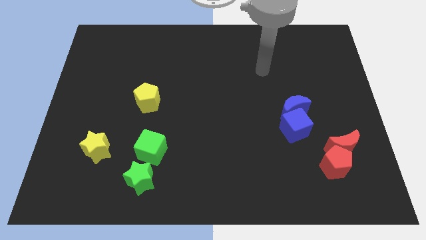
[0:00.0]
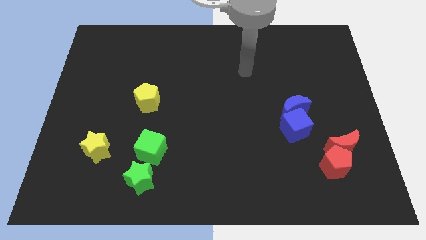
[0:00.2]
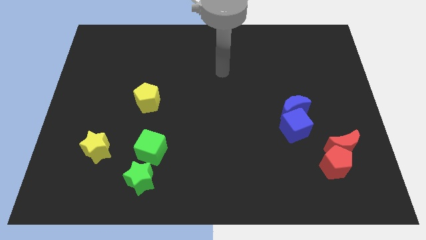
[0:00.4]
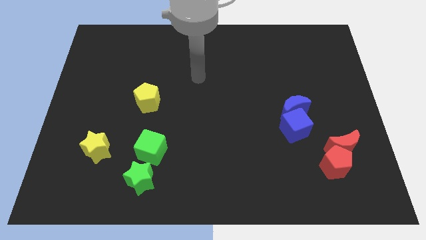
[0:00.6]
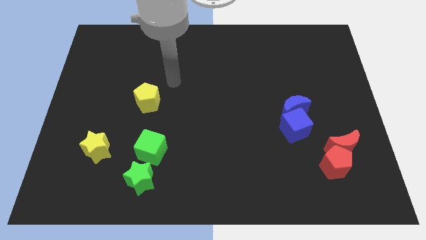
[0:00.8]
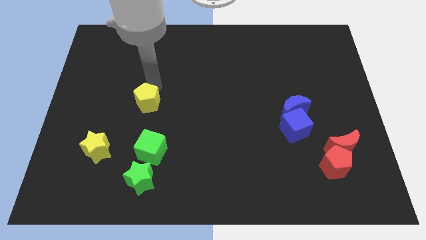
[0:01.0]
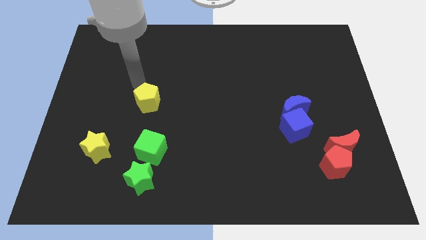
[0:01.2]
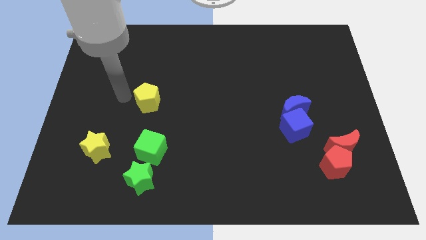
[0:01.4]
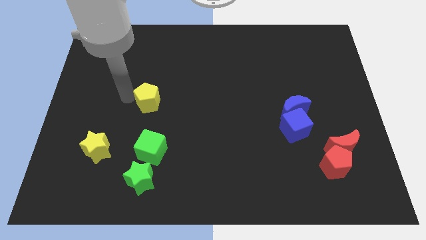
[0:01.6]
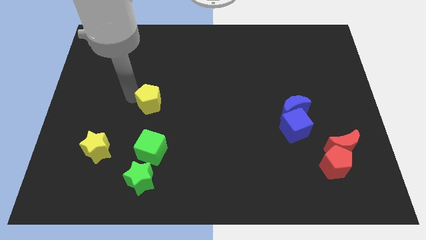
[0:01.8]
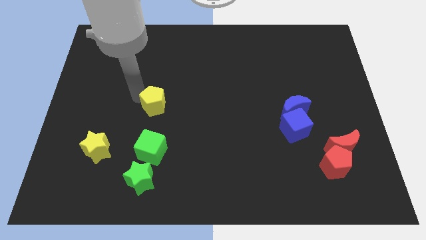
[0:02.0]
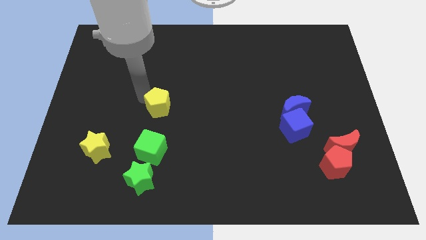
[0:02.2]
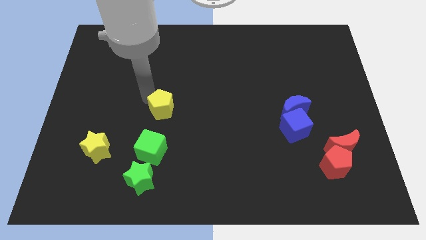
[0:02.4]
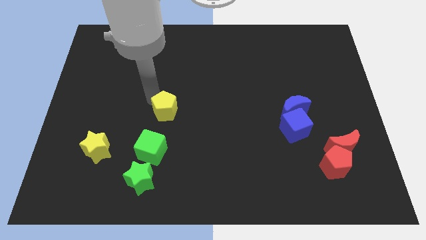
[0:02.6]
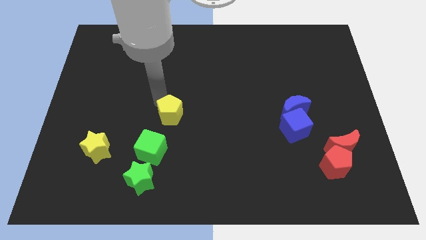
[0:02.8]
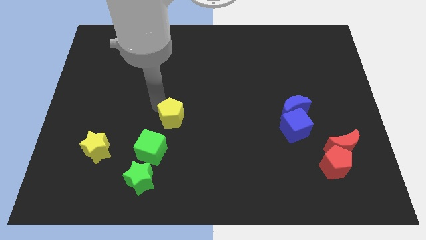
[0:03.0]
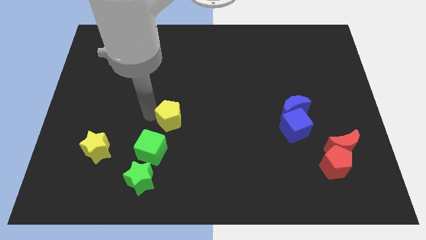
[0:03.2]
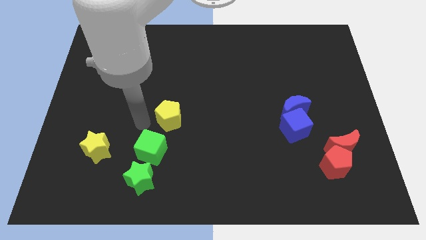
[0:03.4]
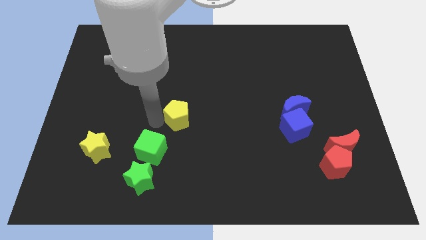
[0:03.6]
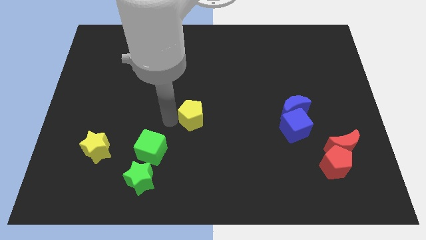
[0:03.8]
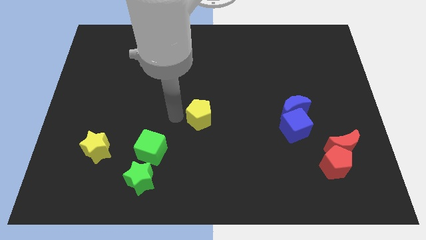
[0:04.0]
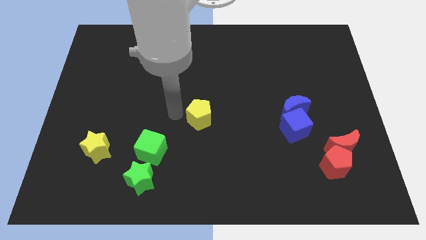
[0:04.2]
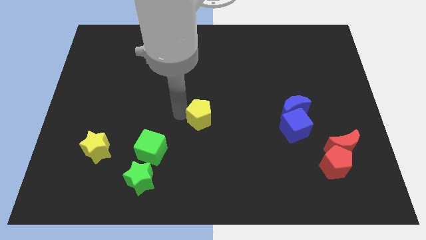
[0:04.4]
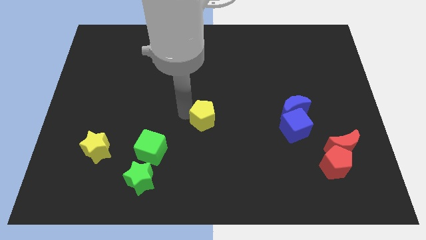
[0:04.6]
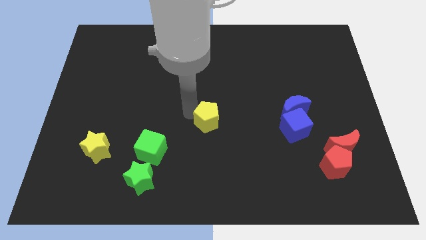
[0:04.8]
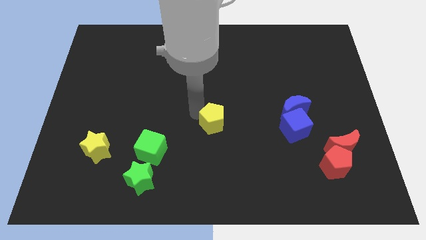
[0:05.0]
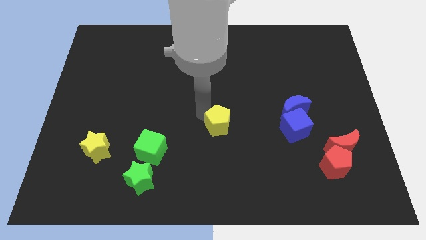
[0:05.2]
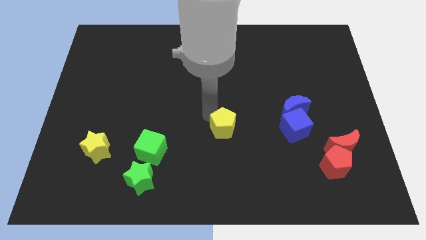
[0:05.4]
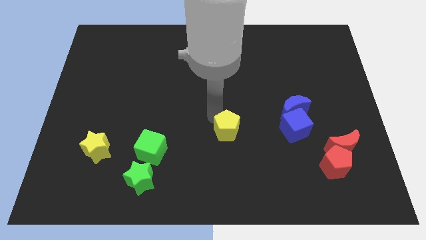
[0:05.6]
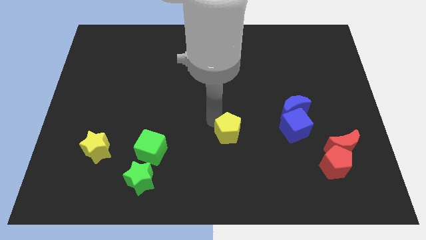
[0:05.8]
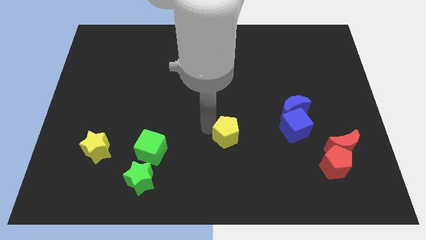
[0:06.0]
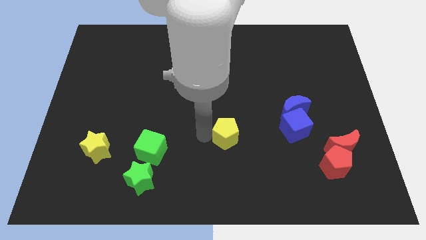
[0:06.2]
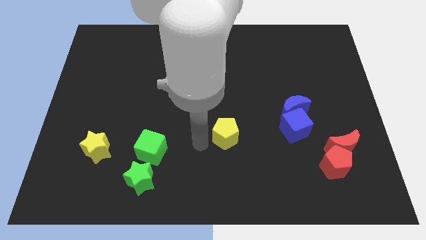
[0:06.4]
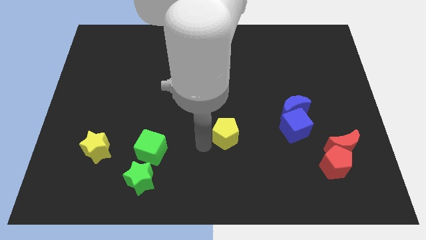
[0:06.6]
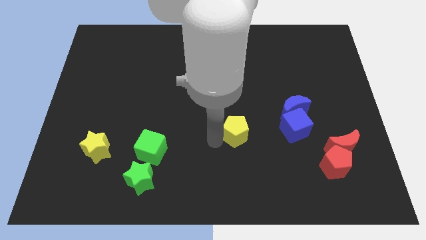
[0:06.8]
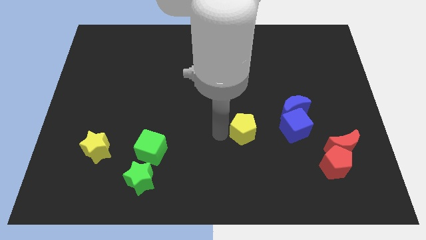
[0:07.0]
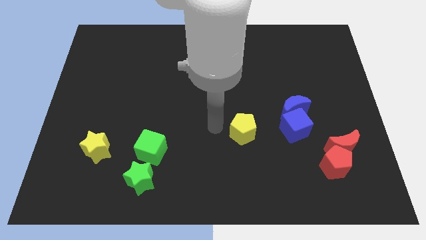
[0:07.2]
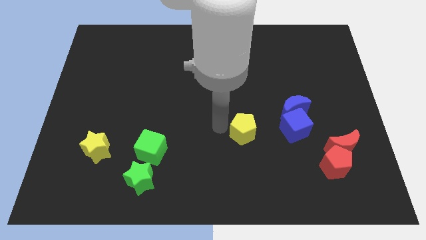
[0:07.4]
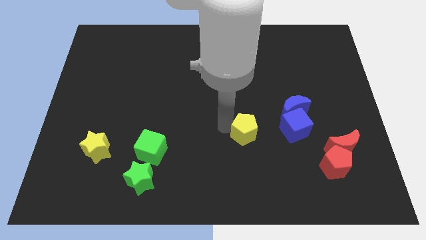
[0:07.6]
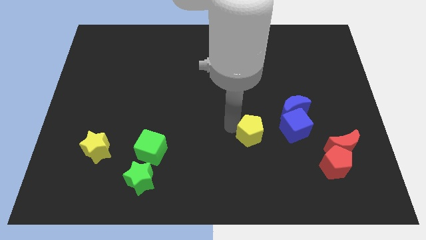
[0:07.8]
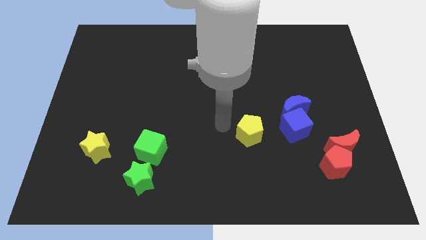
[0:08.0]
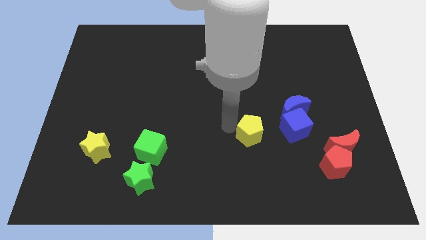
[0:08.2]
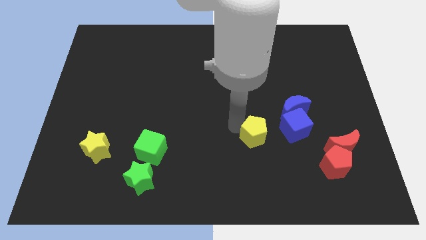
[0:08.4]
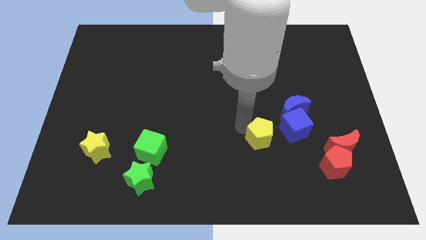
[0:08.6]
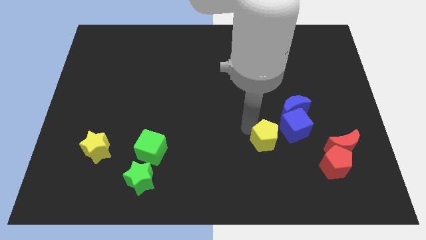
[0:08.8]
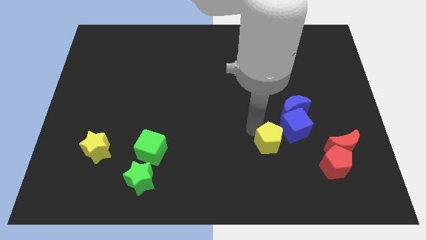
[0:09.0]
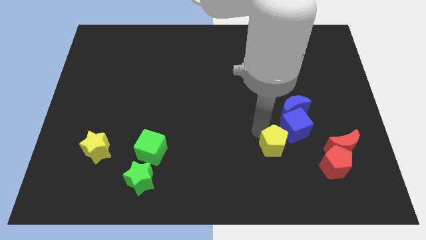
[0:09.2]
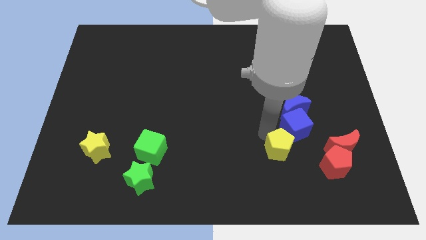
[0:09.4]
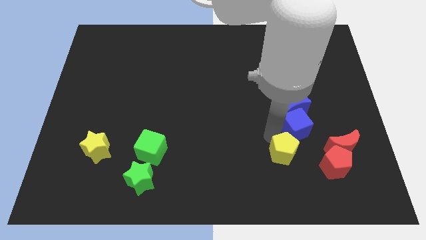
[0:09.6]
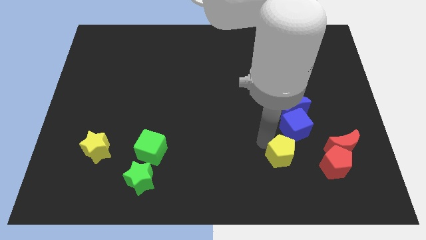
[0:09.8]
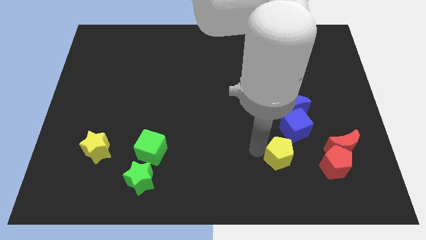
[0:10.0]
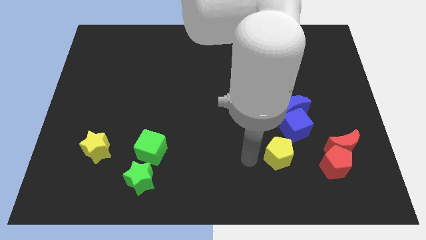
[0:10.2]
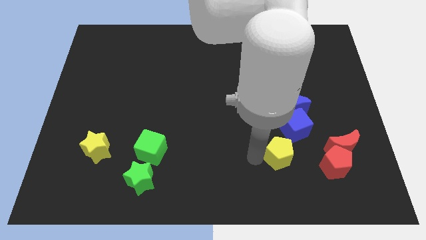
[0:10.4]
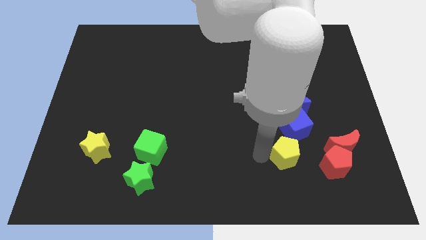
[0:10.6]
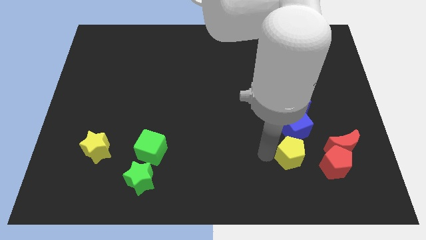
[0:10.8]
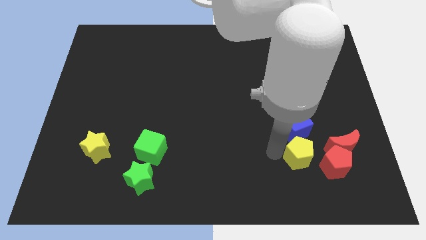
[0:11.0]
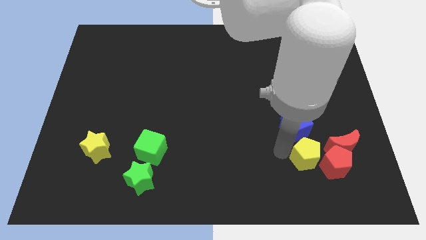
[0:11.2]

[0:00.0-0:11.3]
put the yellow pentagon close to the red pentagon

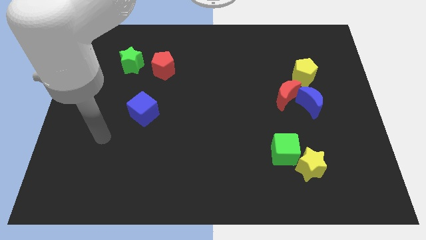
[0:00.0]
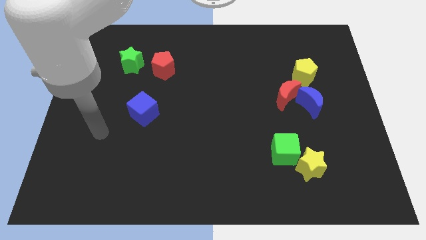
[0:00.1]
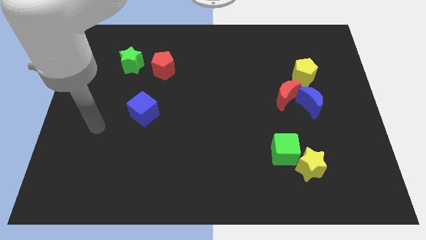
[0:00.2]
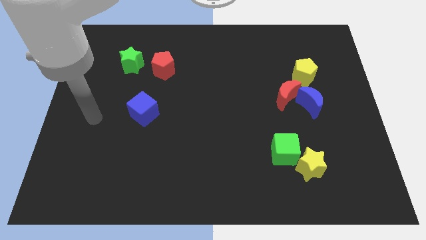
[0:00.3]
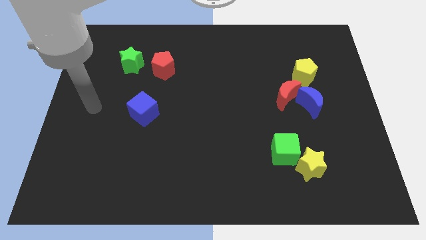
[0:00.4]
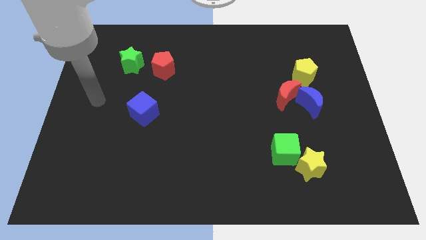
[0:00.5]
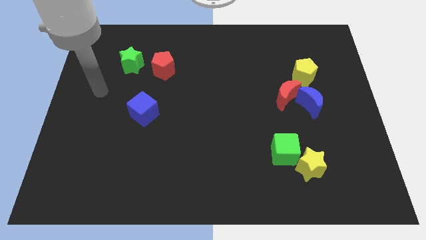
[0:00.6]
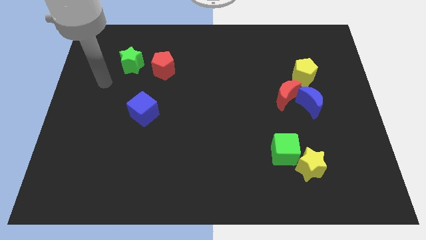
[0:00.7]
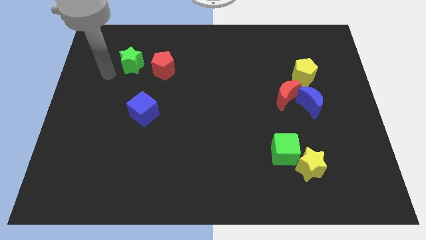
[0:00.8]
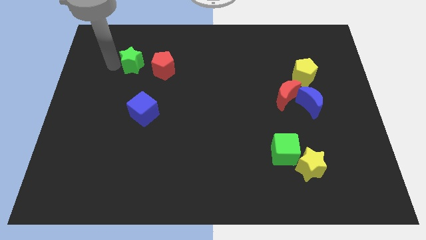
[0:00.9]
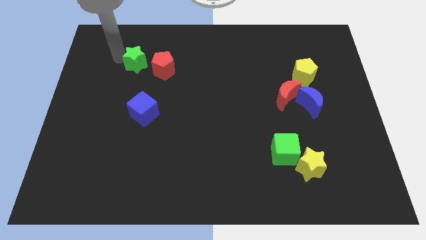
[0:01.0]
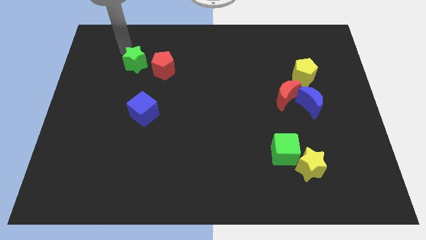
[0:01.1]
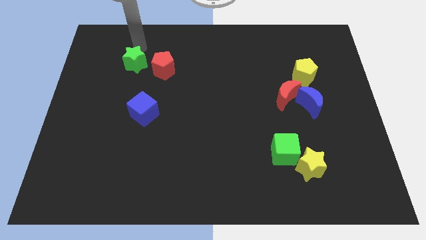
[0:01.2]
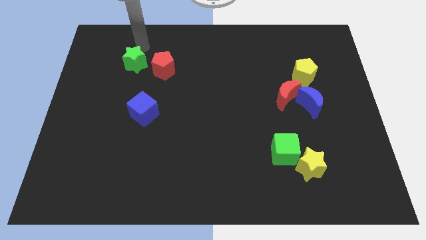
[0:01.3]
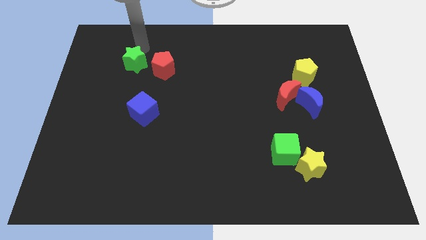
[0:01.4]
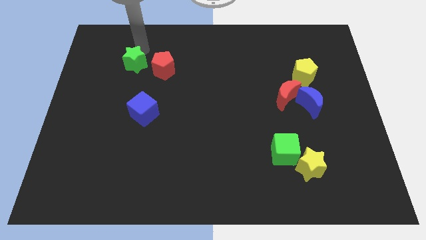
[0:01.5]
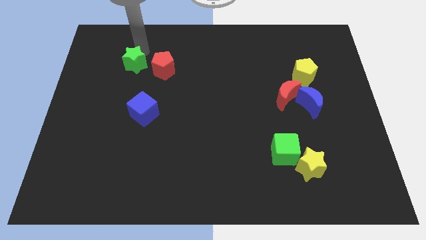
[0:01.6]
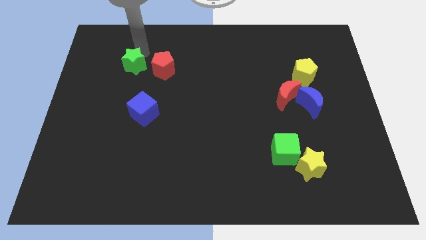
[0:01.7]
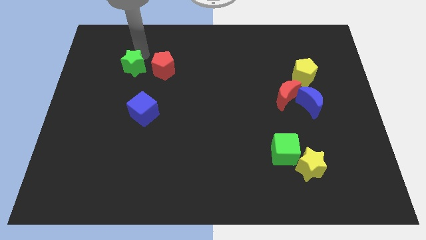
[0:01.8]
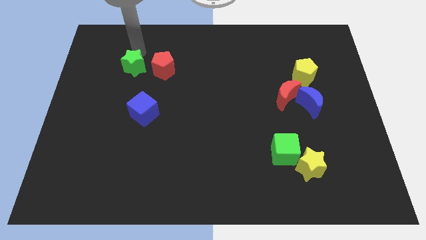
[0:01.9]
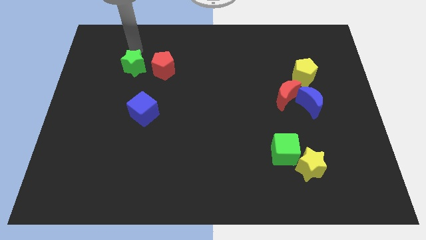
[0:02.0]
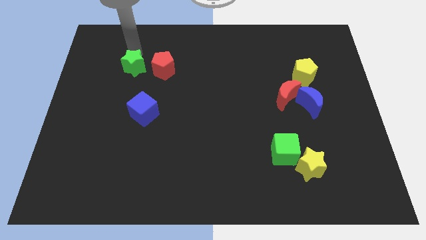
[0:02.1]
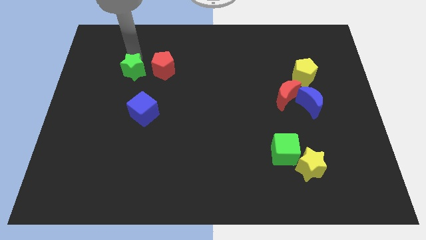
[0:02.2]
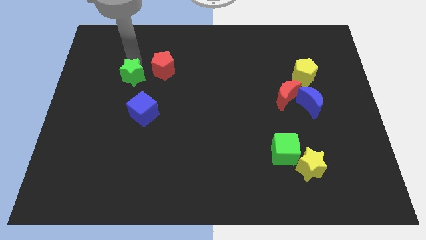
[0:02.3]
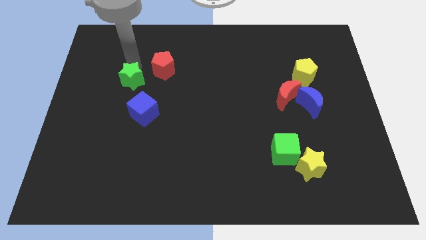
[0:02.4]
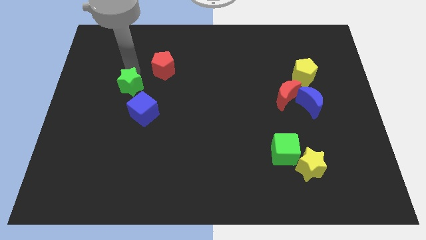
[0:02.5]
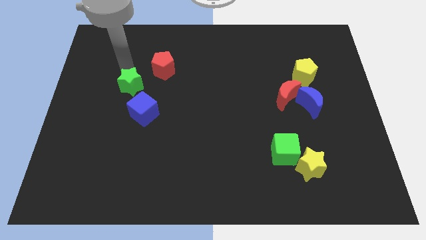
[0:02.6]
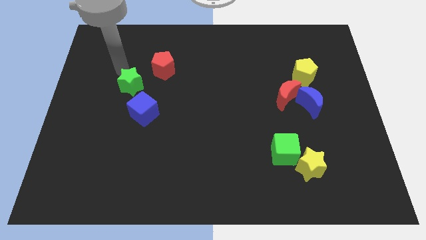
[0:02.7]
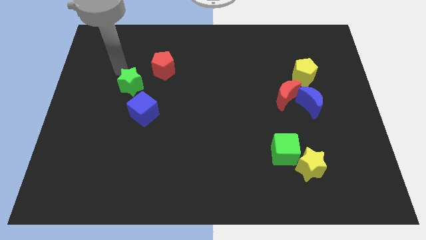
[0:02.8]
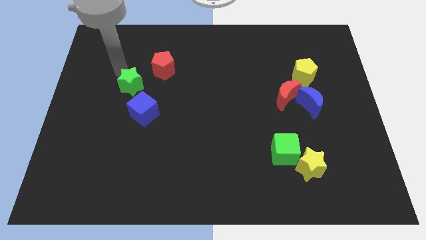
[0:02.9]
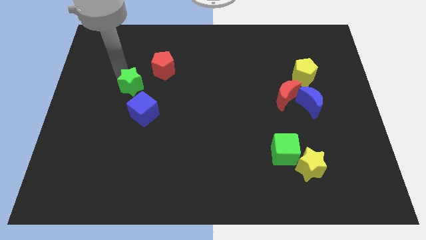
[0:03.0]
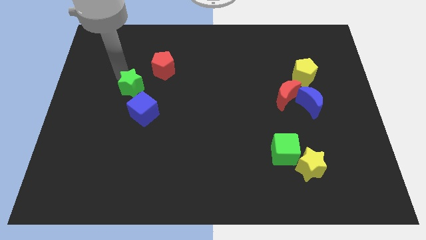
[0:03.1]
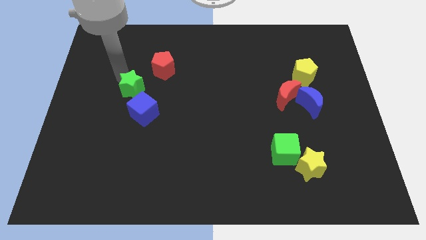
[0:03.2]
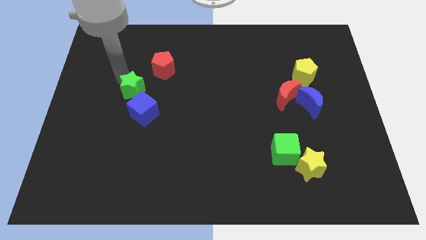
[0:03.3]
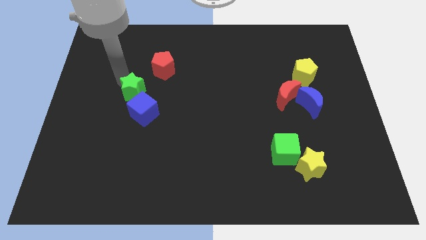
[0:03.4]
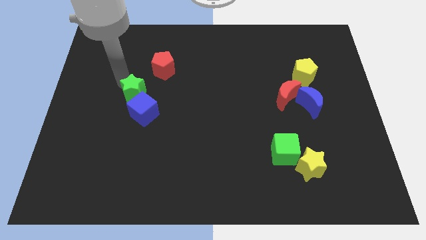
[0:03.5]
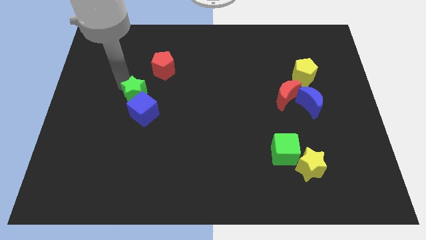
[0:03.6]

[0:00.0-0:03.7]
move the green star close to the blue cube
